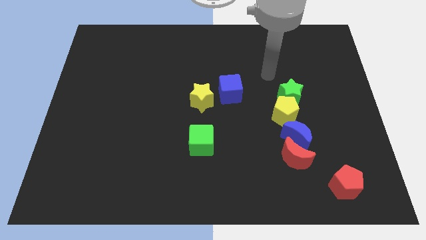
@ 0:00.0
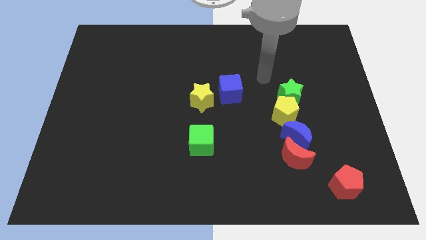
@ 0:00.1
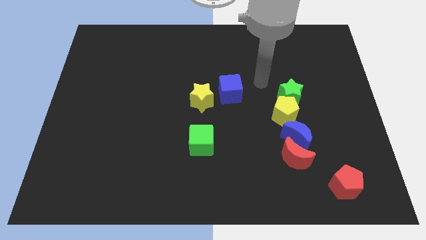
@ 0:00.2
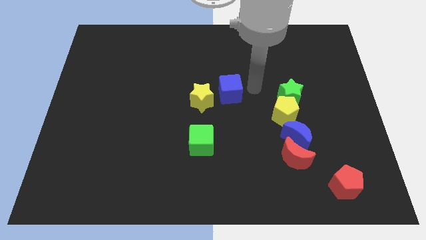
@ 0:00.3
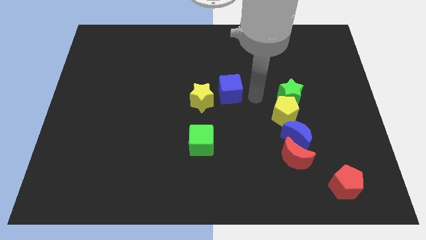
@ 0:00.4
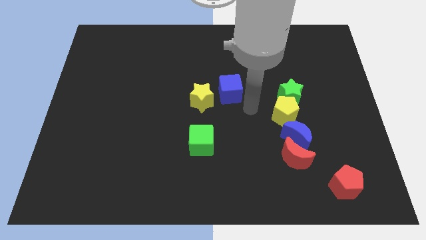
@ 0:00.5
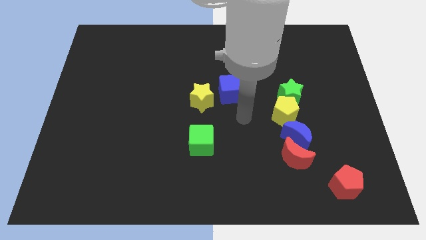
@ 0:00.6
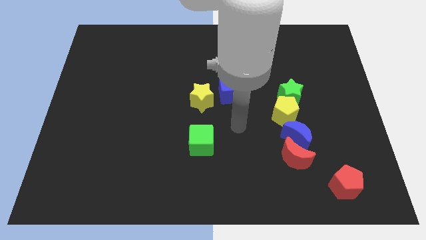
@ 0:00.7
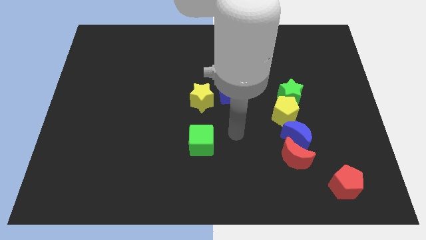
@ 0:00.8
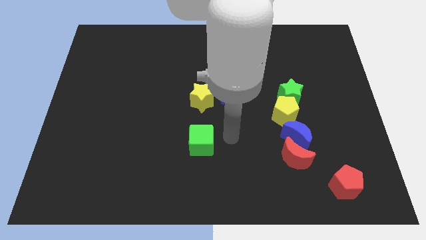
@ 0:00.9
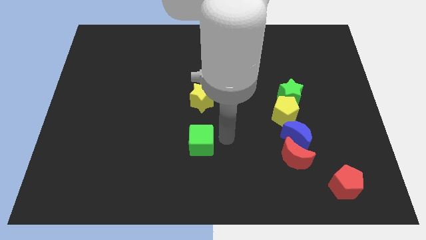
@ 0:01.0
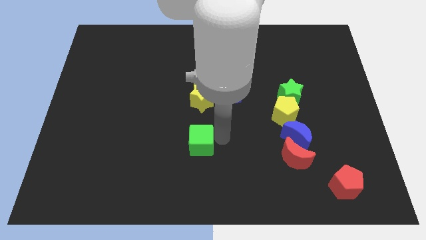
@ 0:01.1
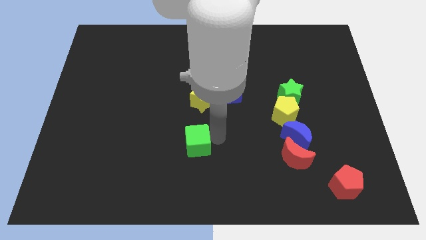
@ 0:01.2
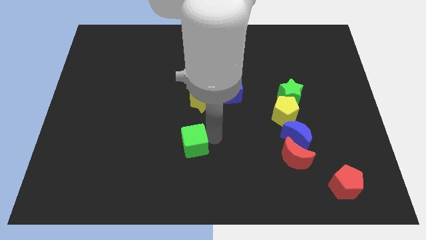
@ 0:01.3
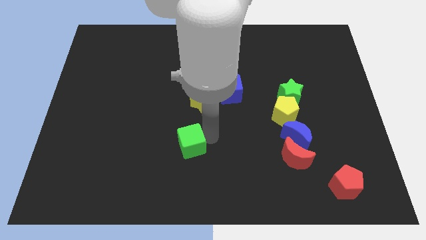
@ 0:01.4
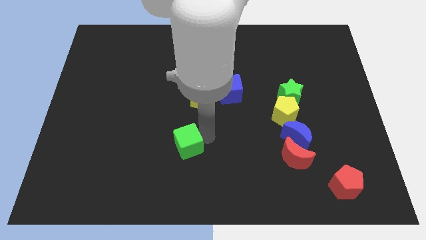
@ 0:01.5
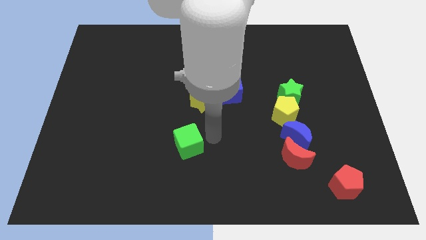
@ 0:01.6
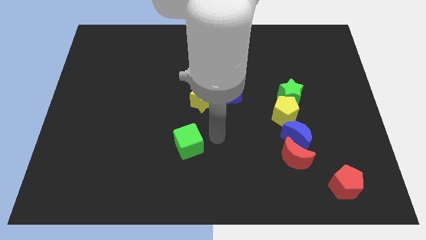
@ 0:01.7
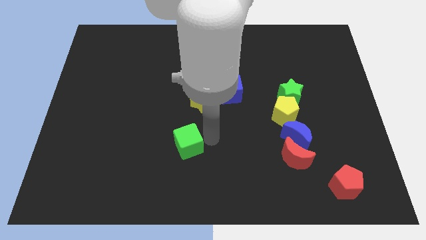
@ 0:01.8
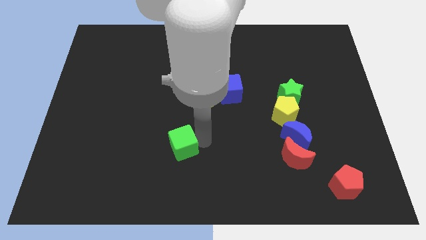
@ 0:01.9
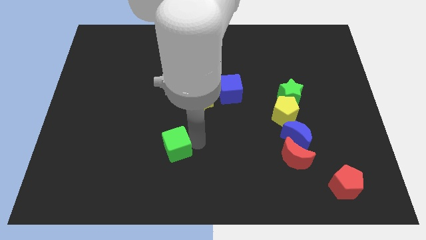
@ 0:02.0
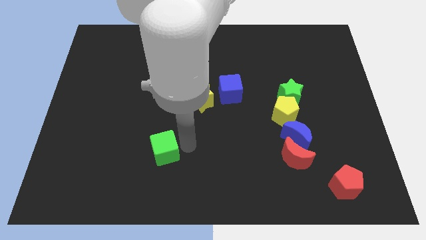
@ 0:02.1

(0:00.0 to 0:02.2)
move the green cube slightly left

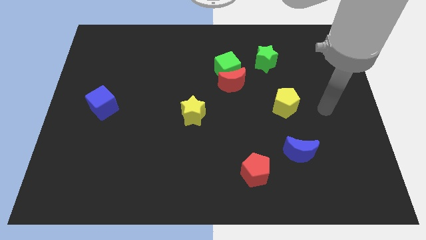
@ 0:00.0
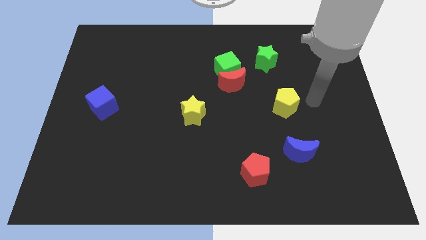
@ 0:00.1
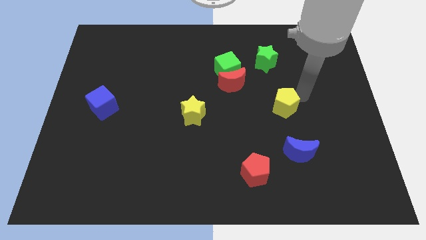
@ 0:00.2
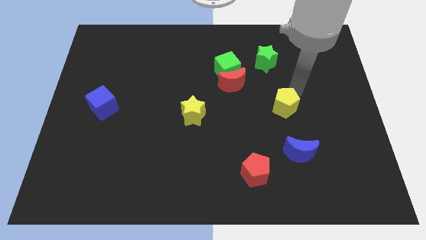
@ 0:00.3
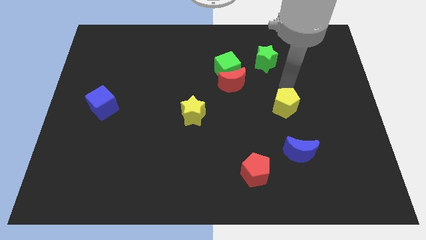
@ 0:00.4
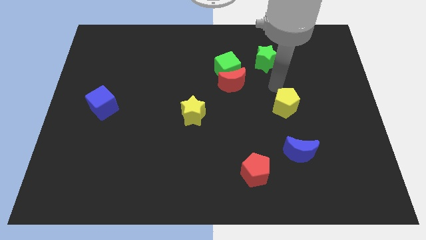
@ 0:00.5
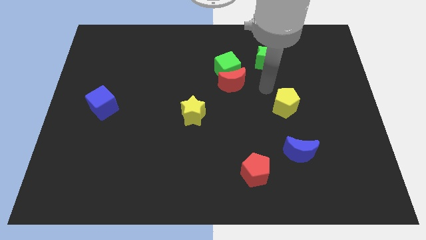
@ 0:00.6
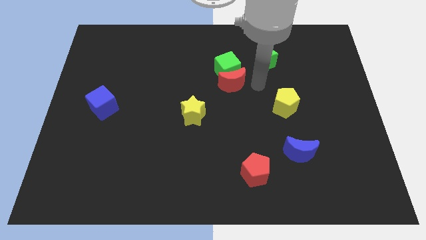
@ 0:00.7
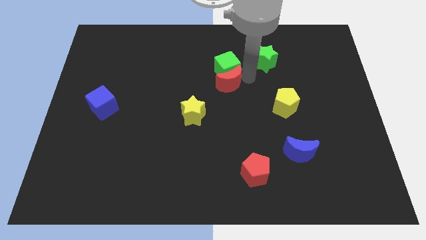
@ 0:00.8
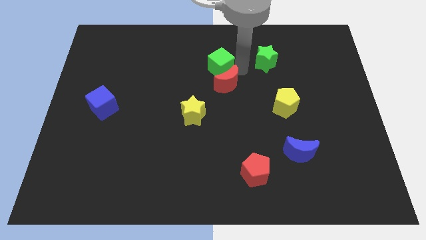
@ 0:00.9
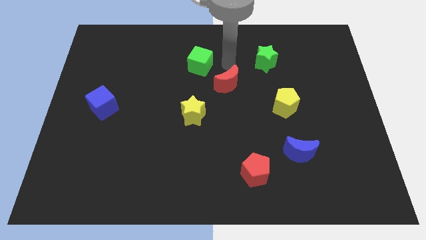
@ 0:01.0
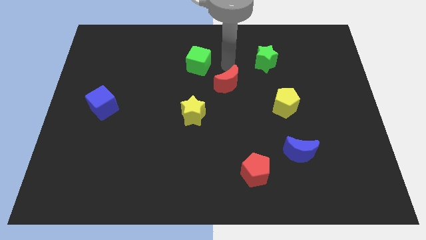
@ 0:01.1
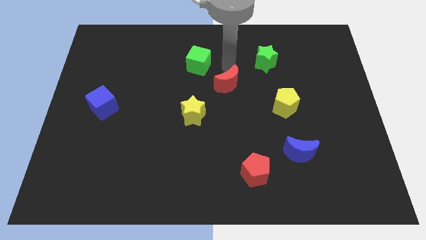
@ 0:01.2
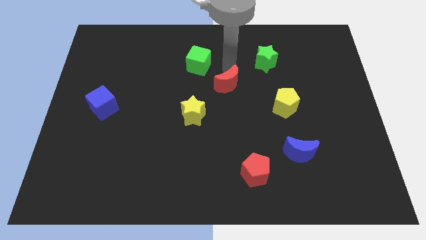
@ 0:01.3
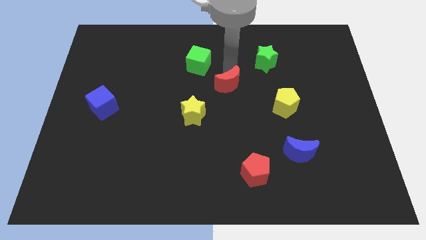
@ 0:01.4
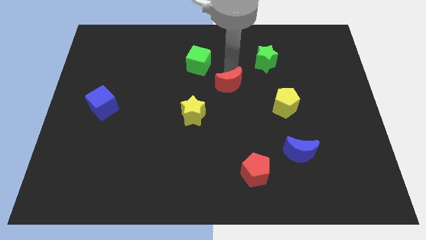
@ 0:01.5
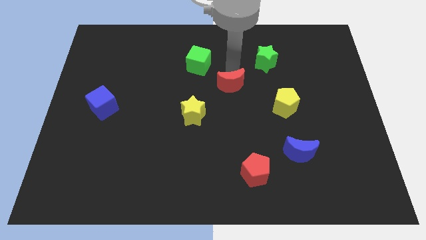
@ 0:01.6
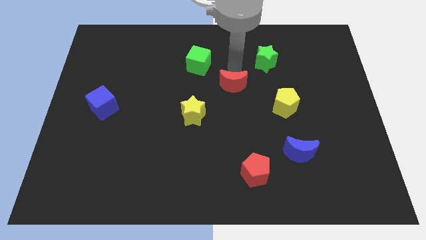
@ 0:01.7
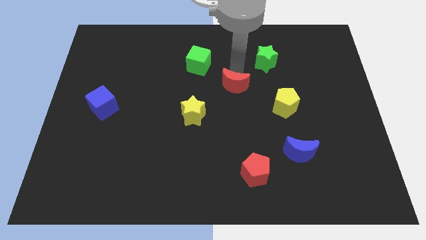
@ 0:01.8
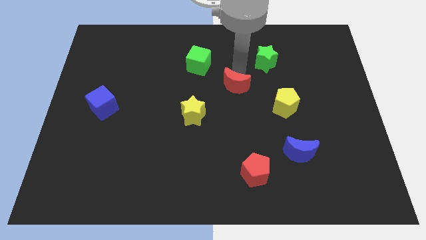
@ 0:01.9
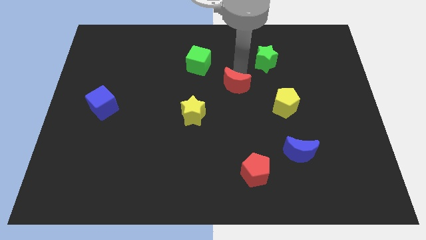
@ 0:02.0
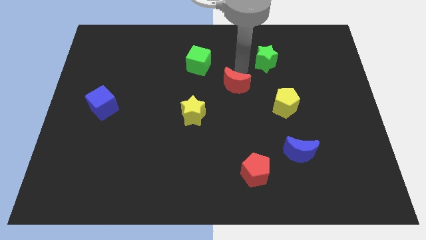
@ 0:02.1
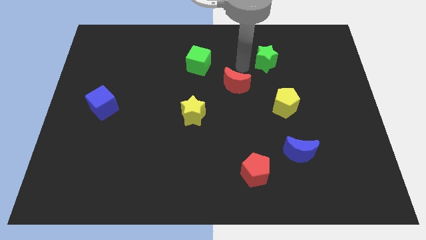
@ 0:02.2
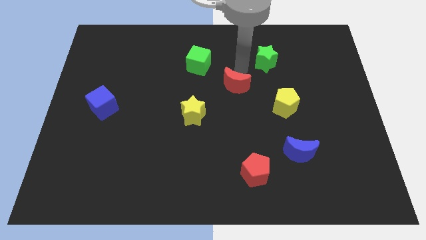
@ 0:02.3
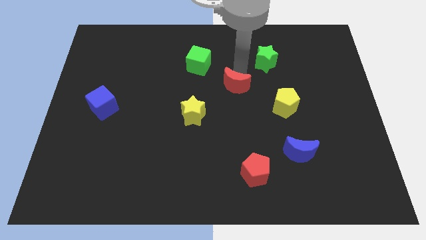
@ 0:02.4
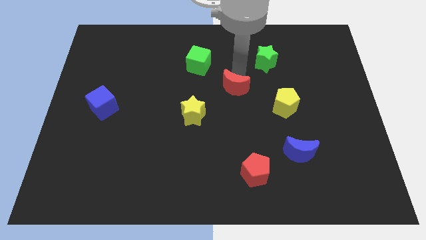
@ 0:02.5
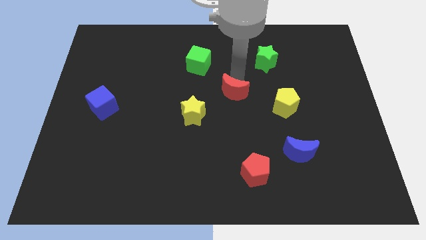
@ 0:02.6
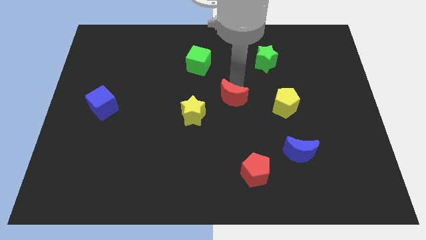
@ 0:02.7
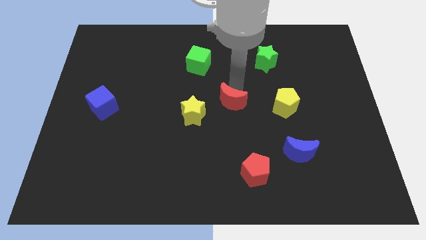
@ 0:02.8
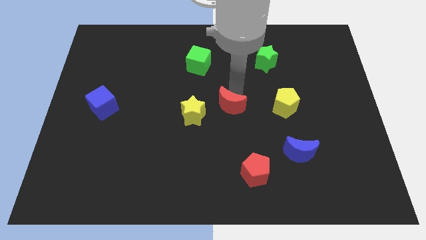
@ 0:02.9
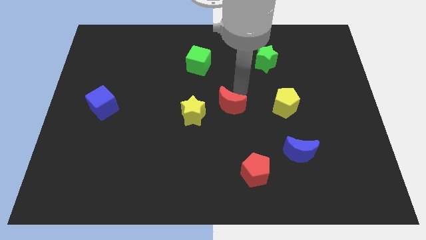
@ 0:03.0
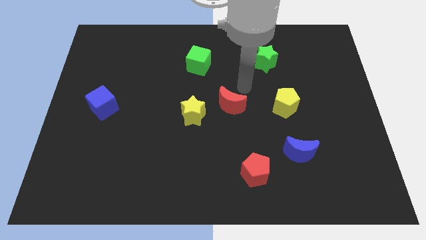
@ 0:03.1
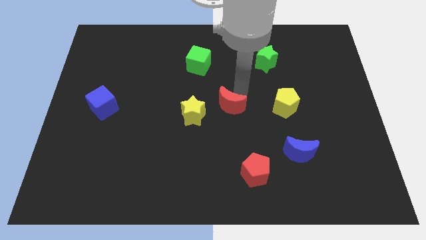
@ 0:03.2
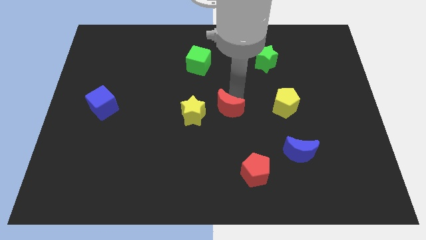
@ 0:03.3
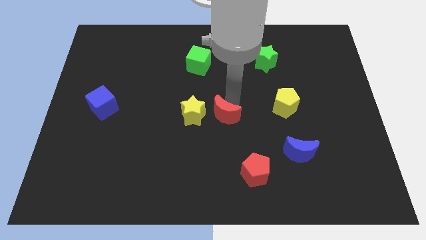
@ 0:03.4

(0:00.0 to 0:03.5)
push the red moon downwards and to the left diagonally a bit

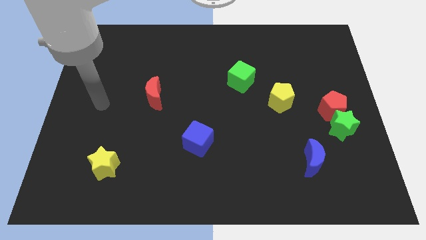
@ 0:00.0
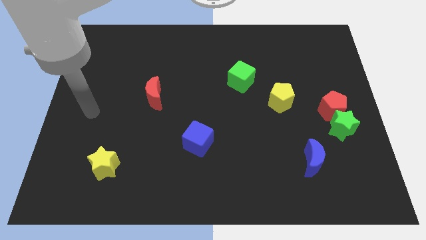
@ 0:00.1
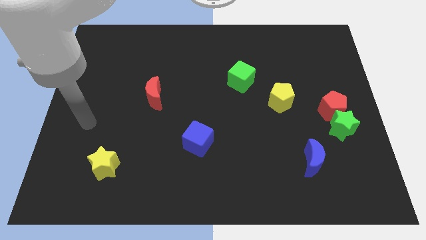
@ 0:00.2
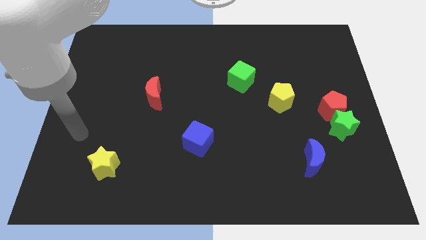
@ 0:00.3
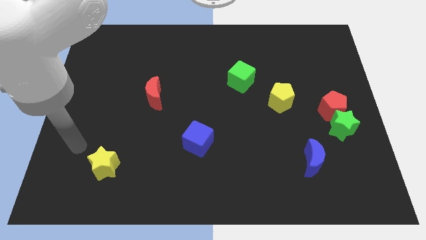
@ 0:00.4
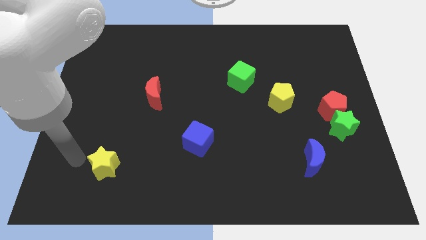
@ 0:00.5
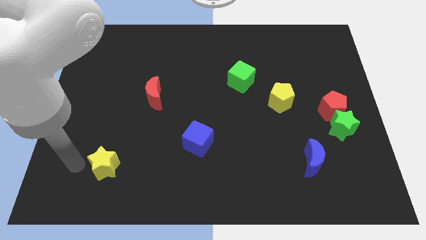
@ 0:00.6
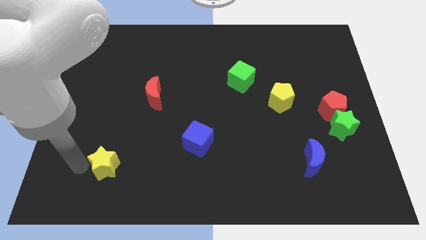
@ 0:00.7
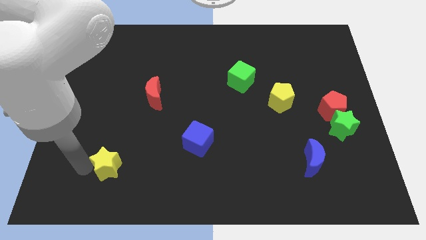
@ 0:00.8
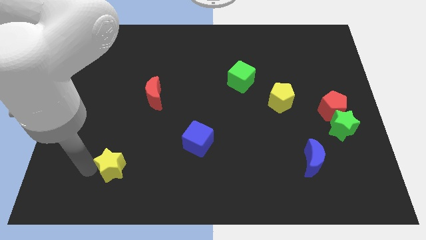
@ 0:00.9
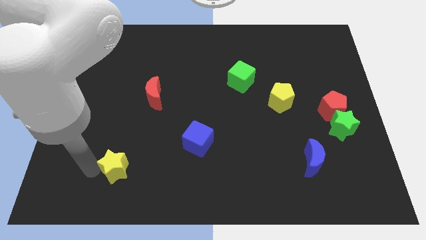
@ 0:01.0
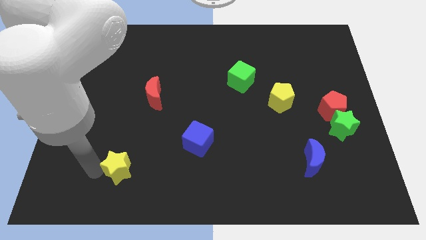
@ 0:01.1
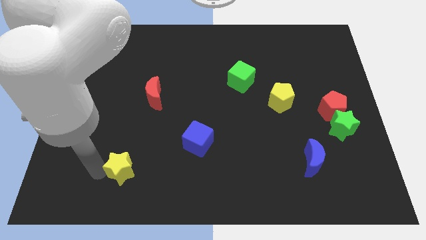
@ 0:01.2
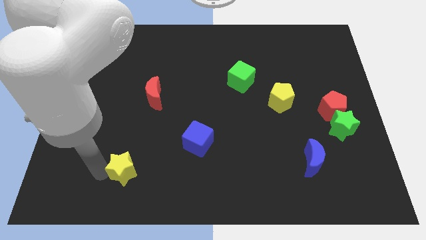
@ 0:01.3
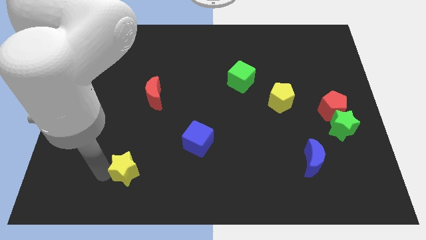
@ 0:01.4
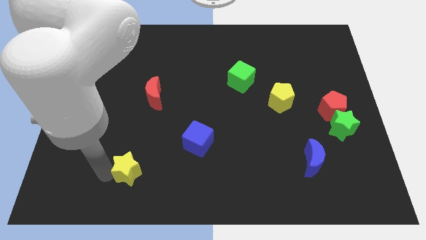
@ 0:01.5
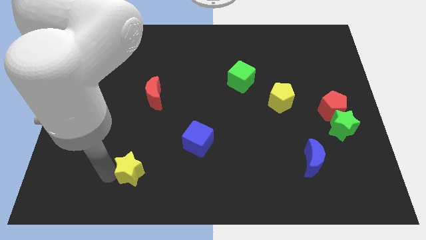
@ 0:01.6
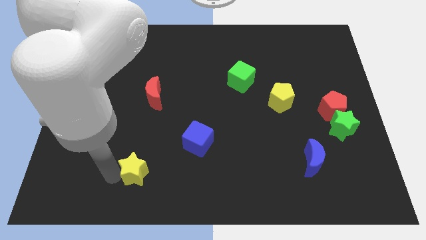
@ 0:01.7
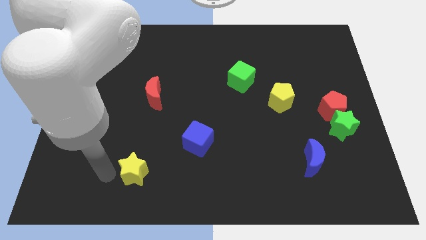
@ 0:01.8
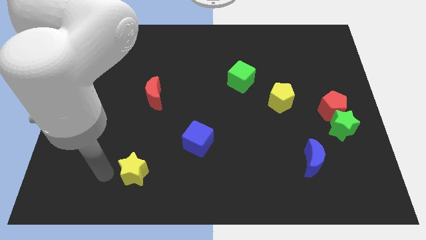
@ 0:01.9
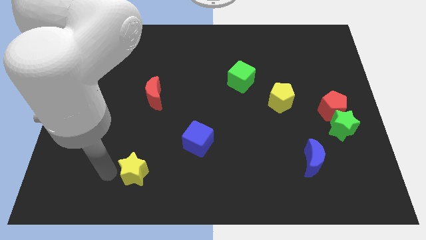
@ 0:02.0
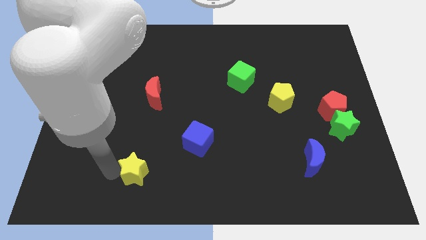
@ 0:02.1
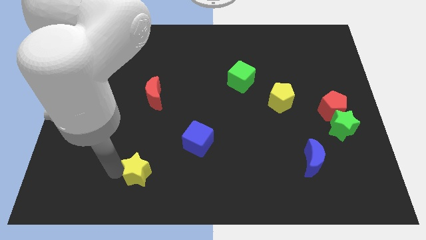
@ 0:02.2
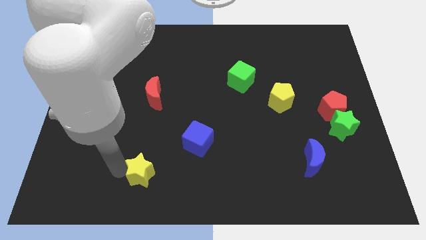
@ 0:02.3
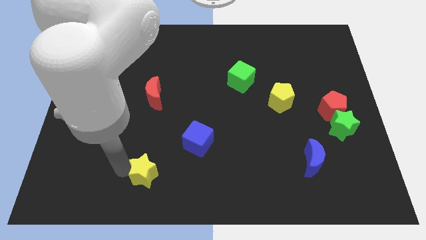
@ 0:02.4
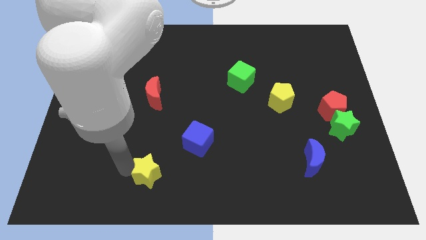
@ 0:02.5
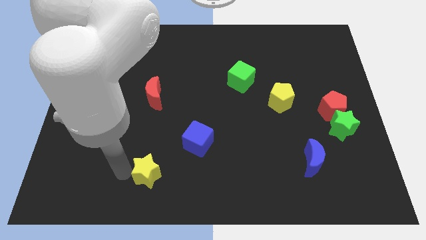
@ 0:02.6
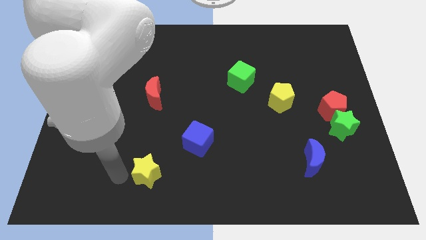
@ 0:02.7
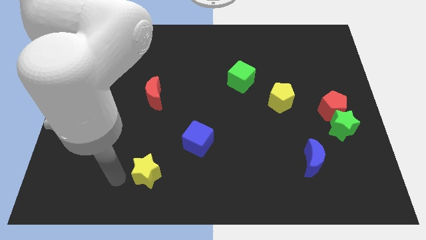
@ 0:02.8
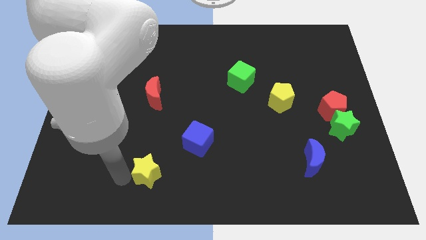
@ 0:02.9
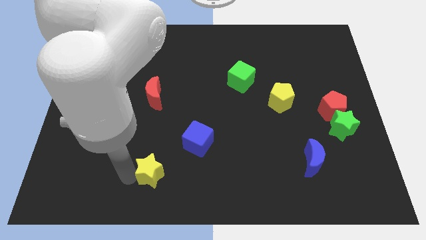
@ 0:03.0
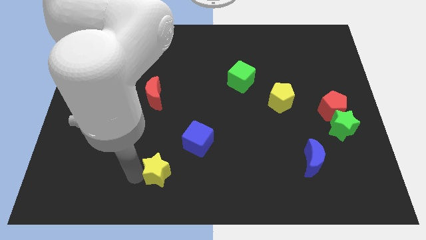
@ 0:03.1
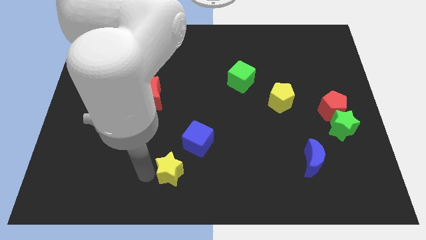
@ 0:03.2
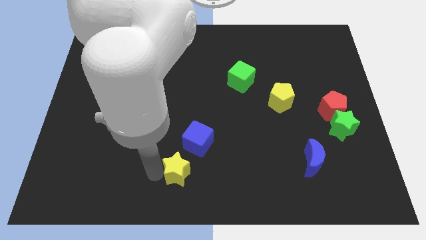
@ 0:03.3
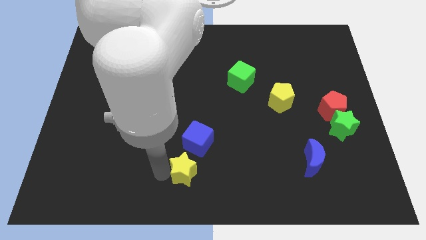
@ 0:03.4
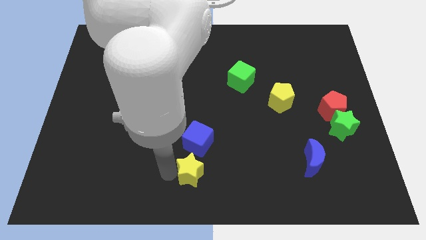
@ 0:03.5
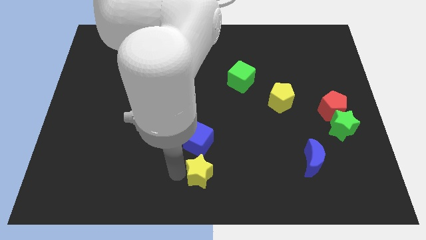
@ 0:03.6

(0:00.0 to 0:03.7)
slide the yellow star to the right
